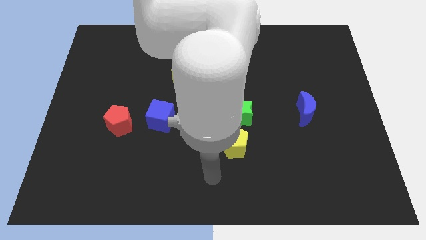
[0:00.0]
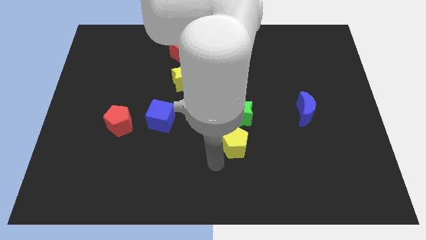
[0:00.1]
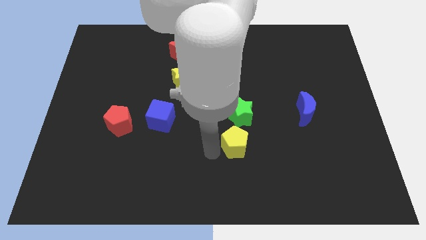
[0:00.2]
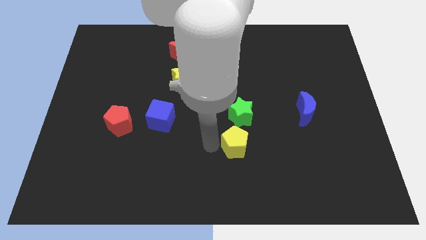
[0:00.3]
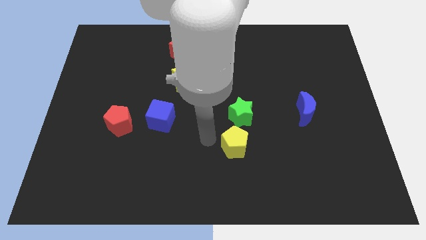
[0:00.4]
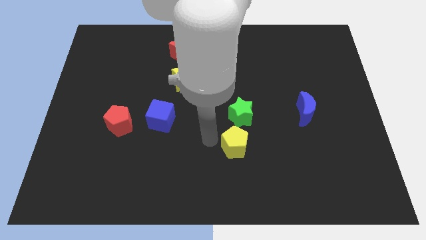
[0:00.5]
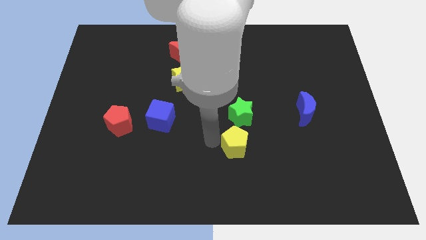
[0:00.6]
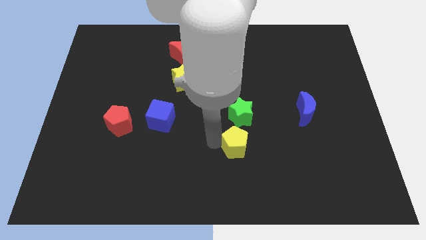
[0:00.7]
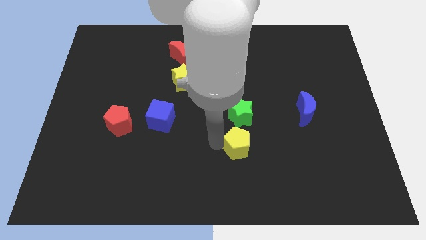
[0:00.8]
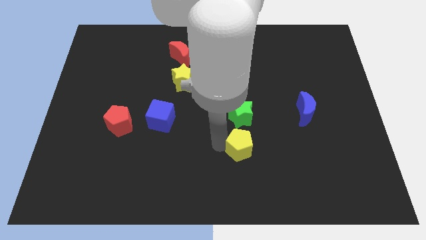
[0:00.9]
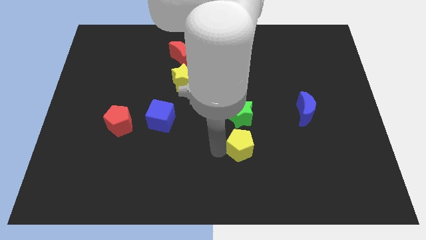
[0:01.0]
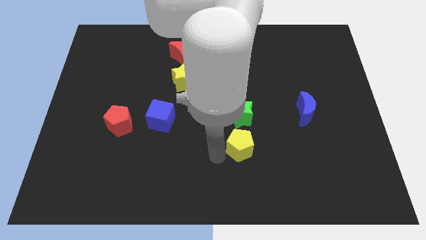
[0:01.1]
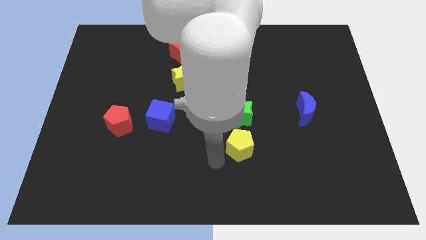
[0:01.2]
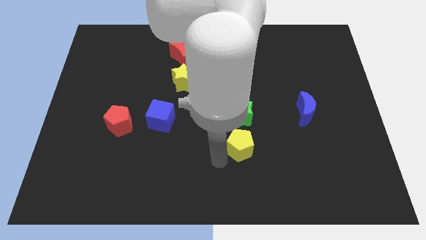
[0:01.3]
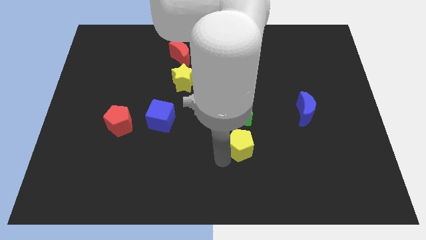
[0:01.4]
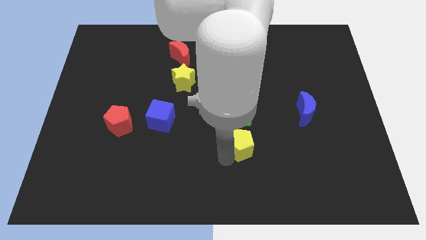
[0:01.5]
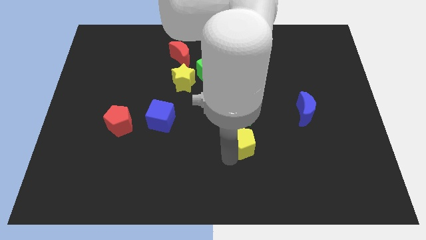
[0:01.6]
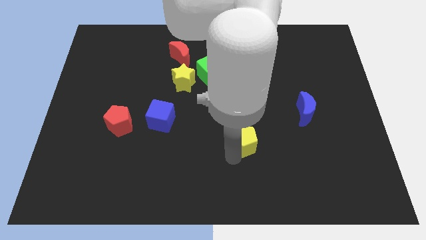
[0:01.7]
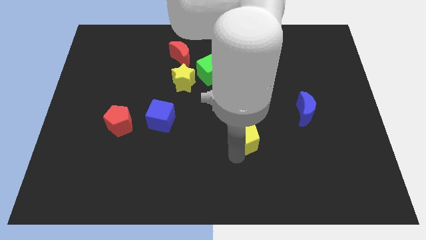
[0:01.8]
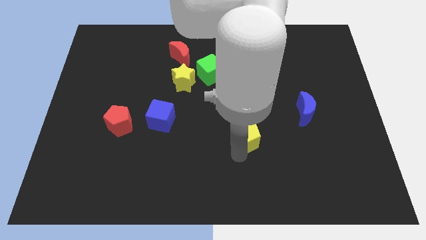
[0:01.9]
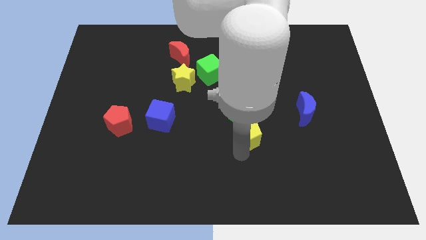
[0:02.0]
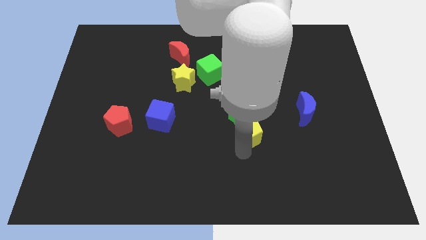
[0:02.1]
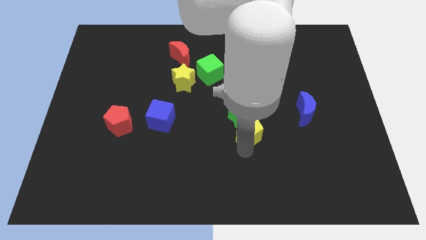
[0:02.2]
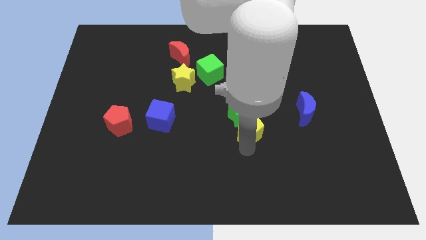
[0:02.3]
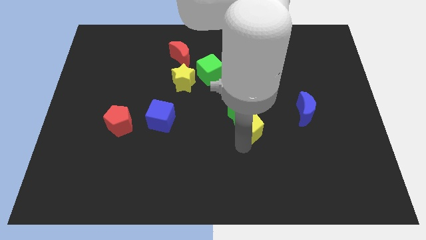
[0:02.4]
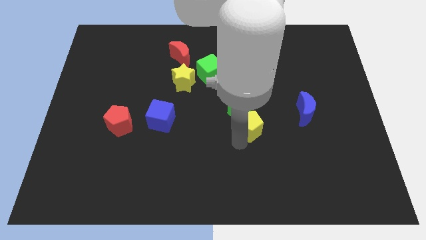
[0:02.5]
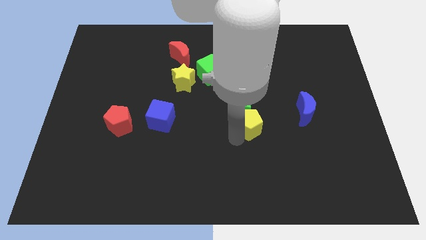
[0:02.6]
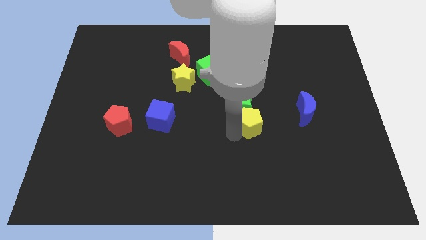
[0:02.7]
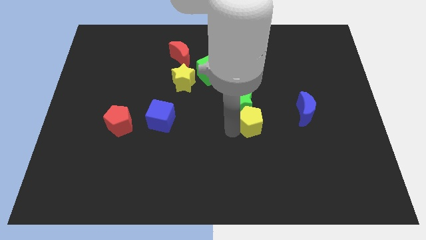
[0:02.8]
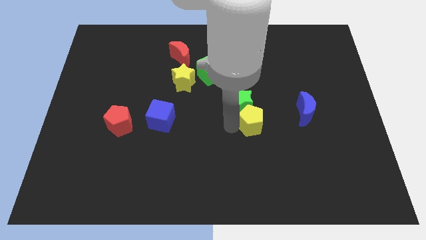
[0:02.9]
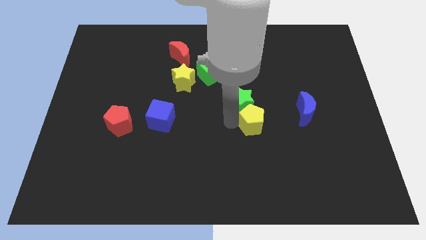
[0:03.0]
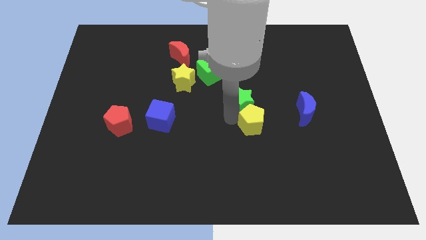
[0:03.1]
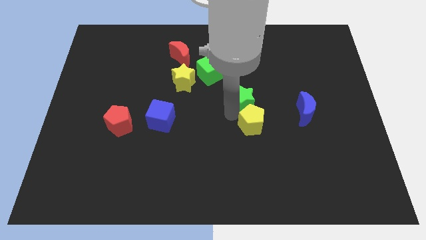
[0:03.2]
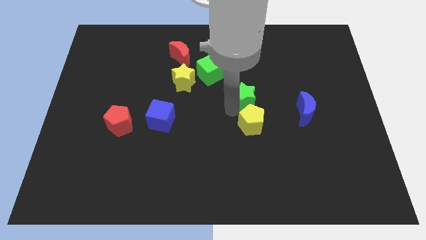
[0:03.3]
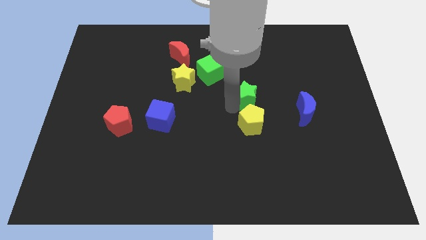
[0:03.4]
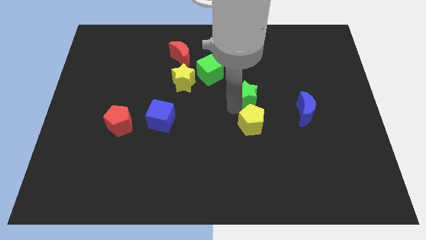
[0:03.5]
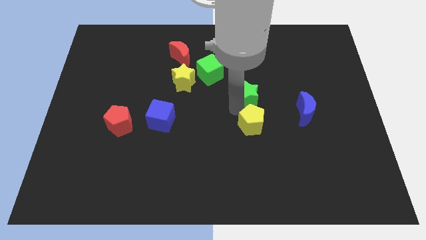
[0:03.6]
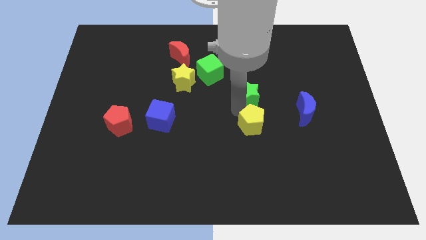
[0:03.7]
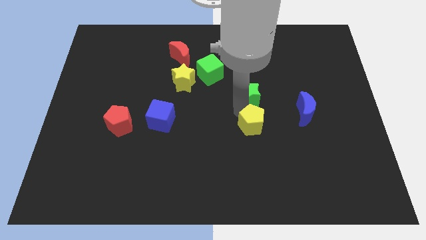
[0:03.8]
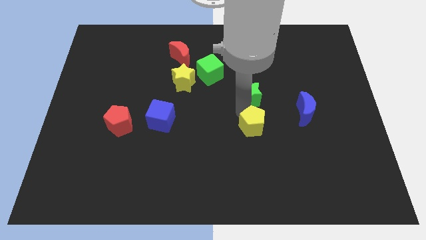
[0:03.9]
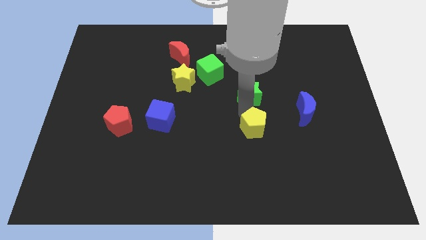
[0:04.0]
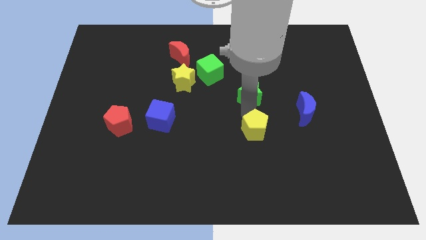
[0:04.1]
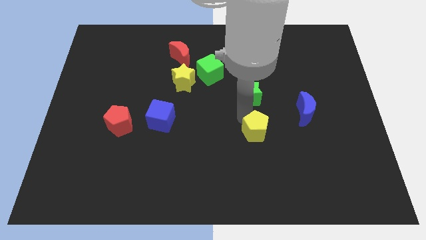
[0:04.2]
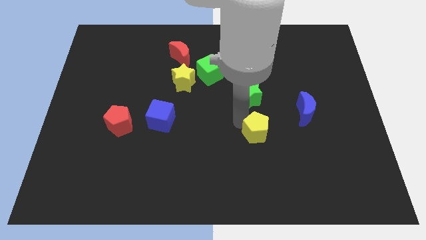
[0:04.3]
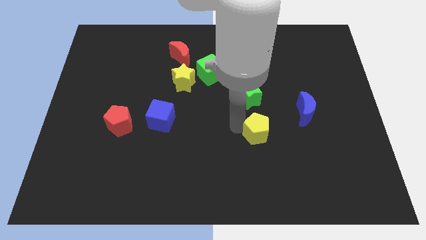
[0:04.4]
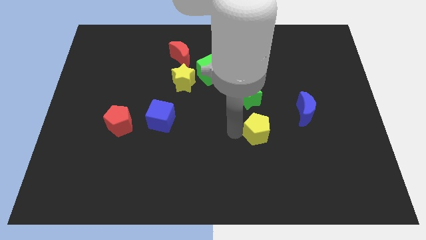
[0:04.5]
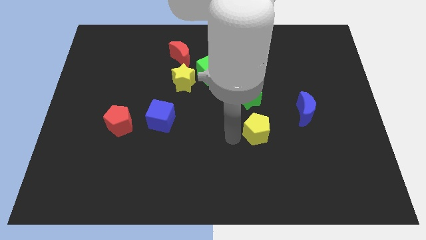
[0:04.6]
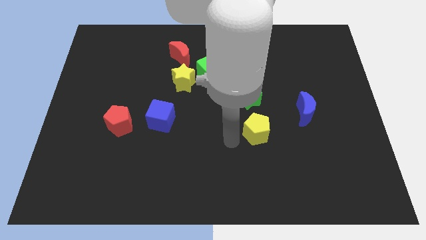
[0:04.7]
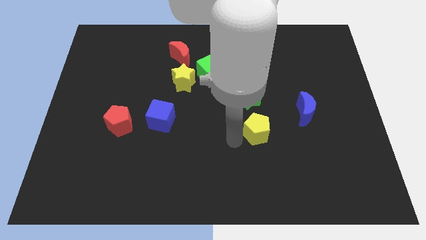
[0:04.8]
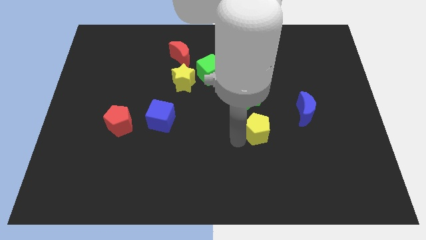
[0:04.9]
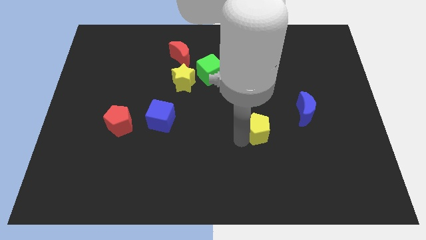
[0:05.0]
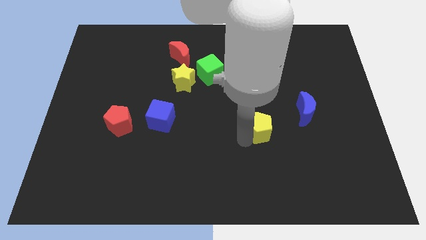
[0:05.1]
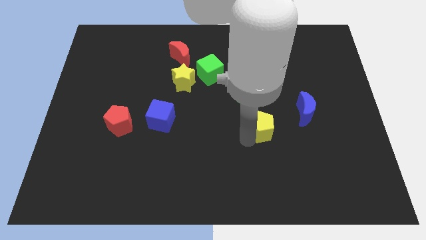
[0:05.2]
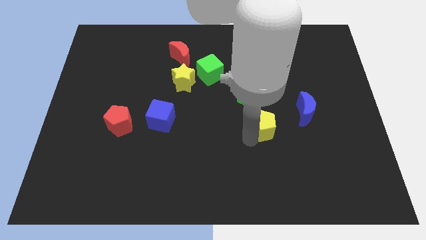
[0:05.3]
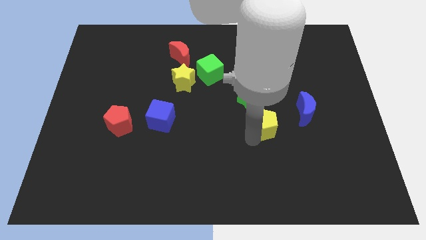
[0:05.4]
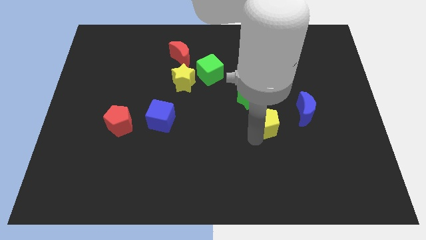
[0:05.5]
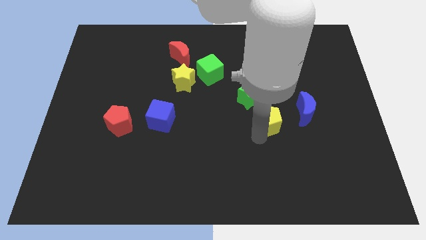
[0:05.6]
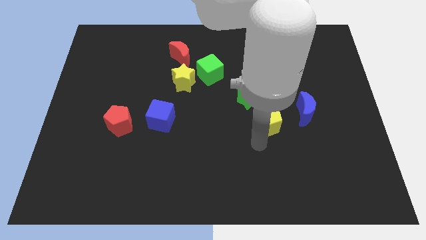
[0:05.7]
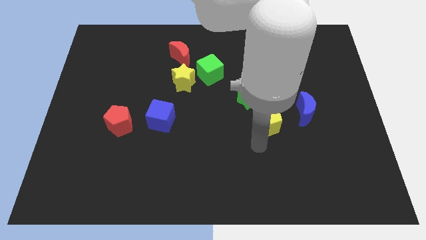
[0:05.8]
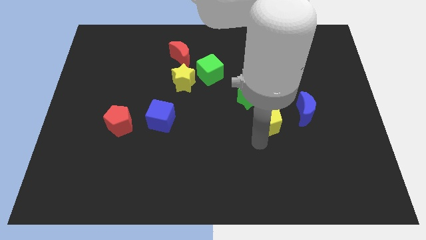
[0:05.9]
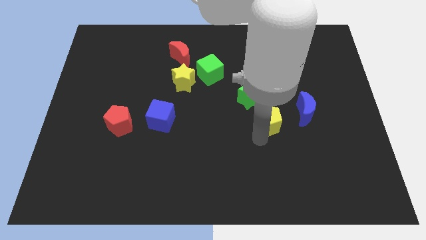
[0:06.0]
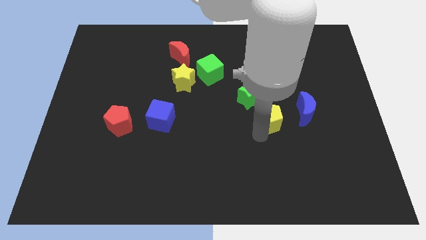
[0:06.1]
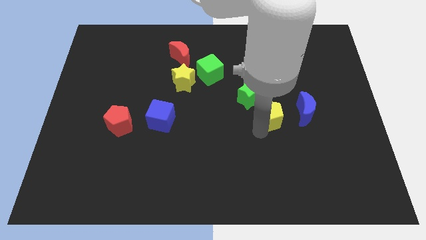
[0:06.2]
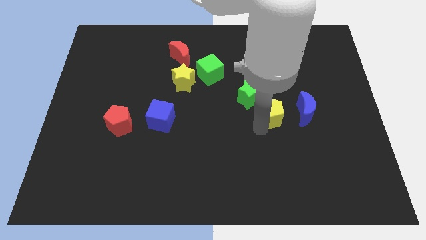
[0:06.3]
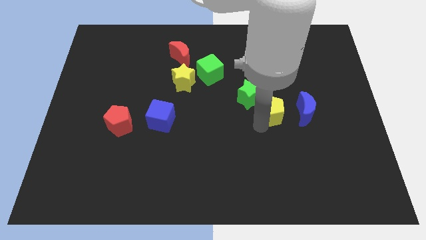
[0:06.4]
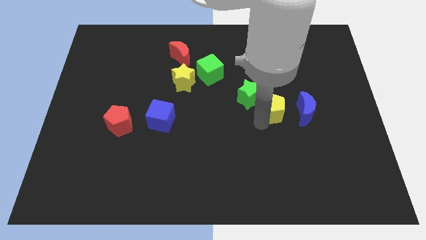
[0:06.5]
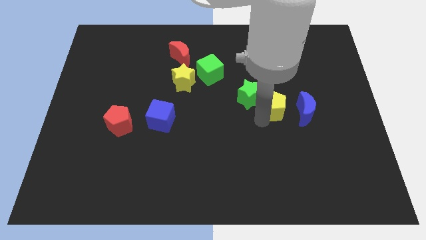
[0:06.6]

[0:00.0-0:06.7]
put the yellow pentagon to the top left of the blue moon
